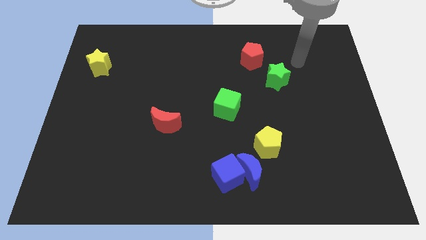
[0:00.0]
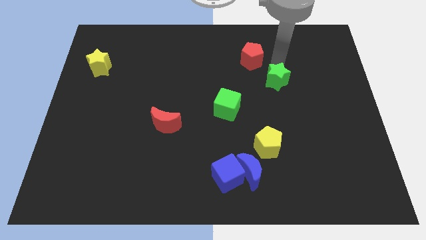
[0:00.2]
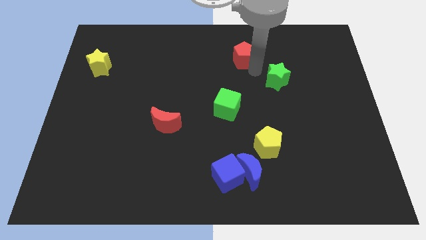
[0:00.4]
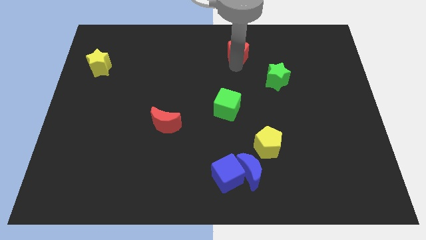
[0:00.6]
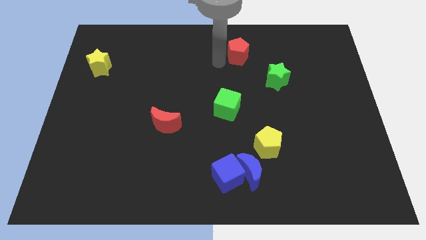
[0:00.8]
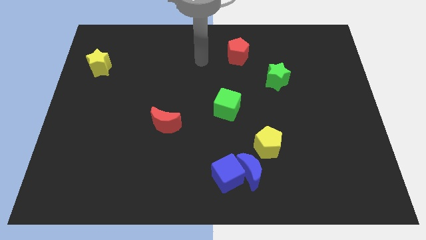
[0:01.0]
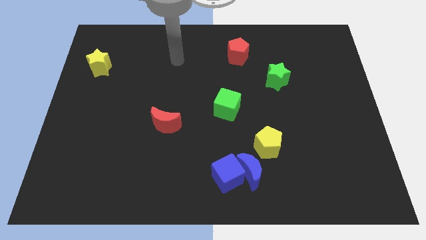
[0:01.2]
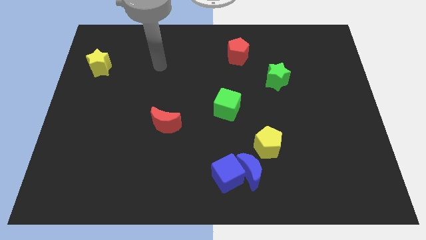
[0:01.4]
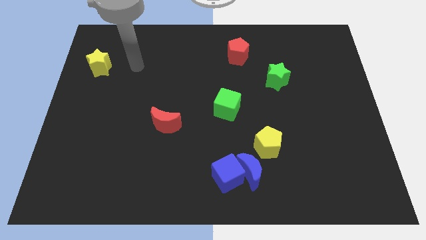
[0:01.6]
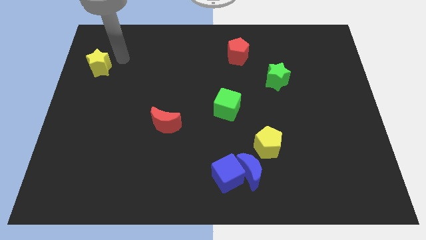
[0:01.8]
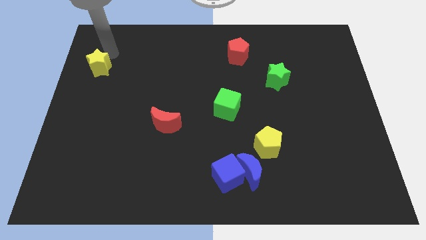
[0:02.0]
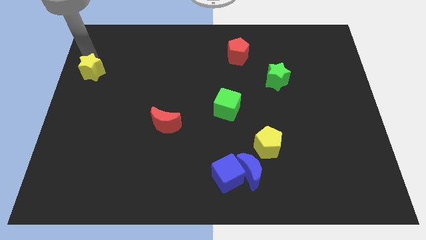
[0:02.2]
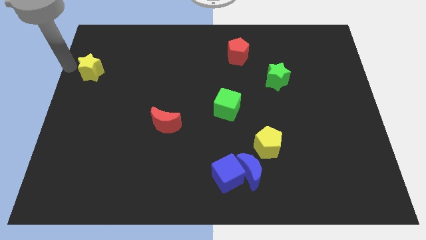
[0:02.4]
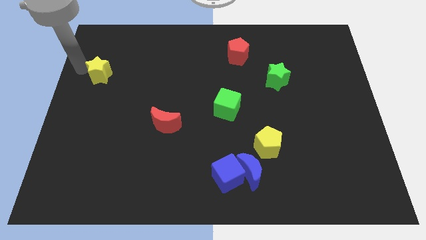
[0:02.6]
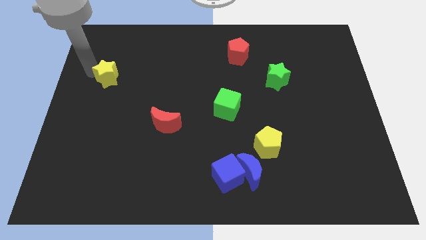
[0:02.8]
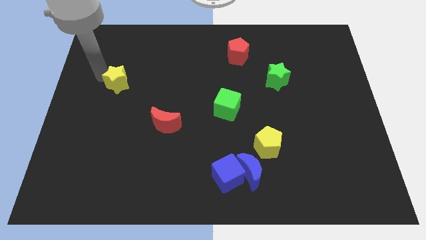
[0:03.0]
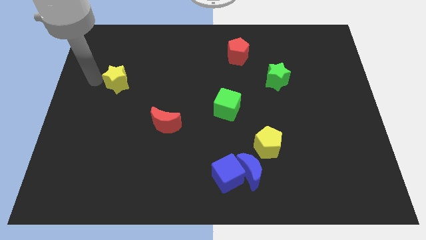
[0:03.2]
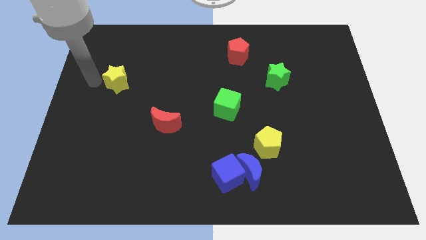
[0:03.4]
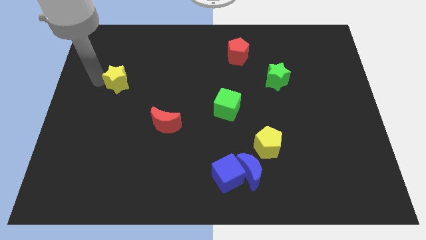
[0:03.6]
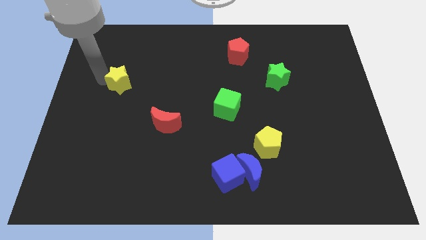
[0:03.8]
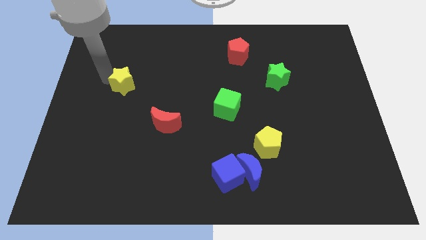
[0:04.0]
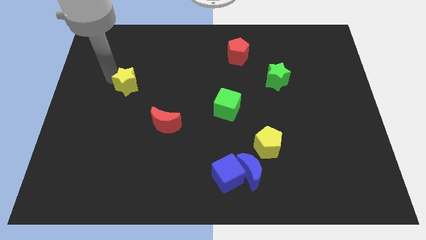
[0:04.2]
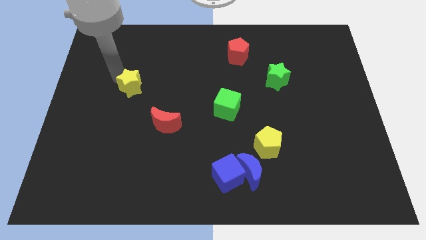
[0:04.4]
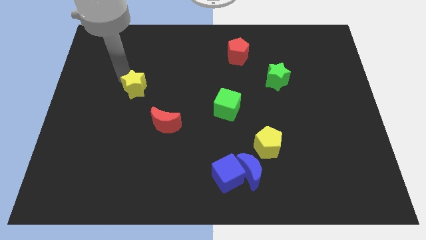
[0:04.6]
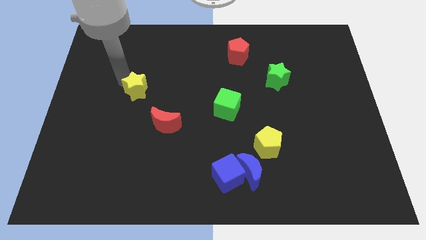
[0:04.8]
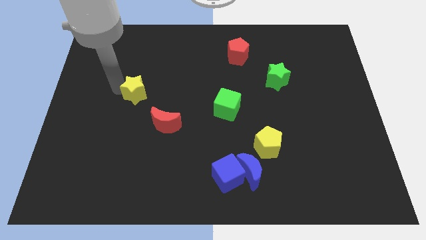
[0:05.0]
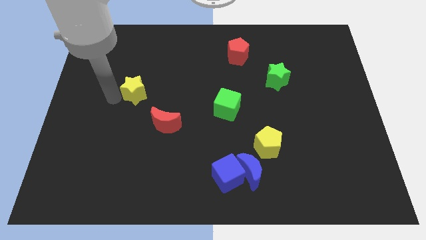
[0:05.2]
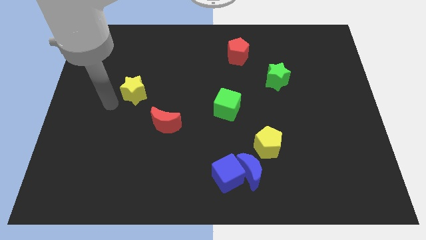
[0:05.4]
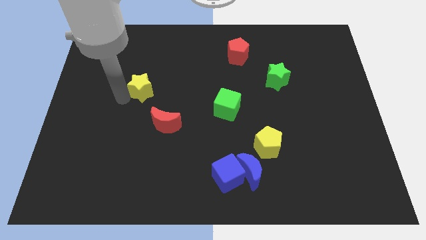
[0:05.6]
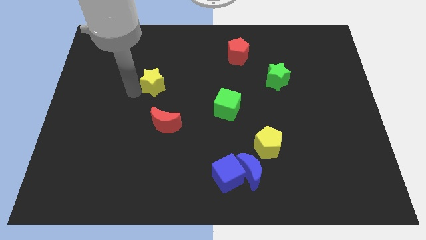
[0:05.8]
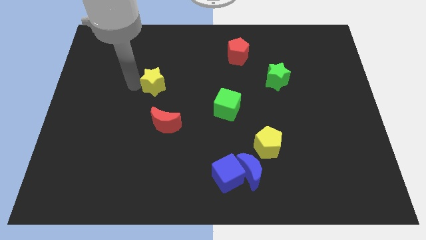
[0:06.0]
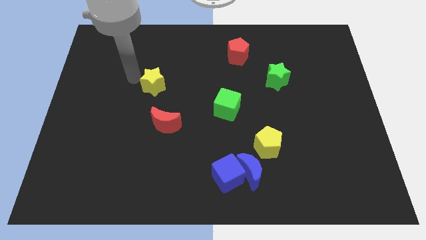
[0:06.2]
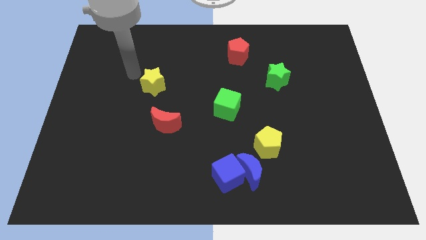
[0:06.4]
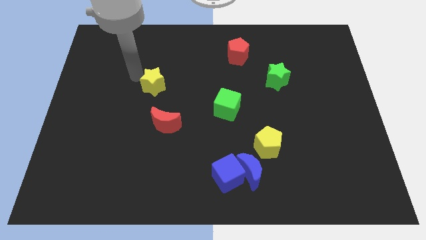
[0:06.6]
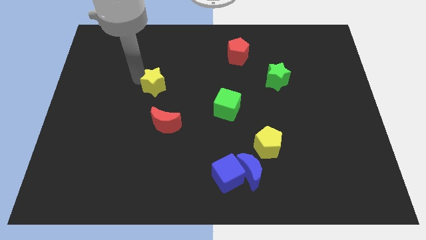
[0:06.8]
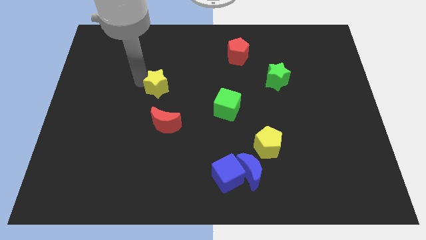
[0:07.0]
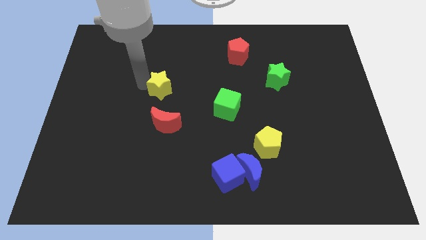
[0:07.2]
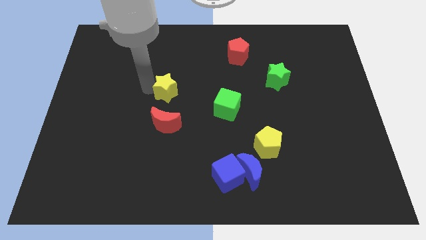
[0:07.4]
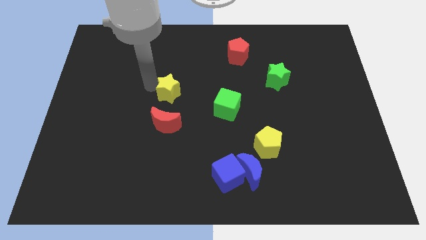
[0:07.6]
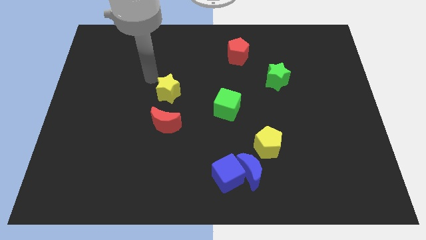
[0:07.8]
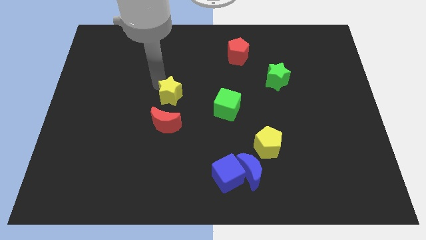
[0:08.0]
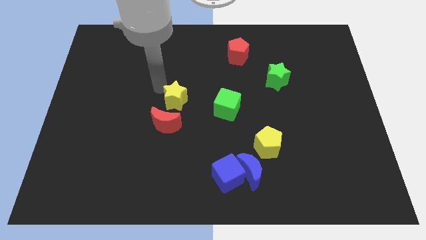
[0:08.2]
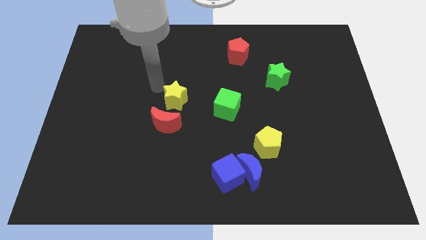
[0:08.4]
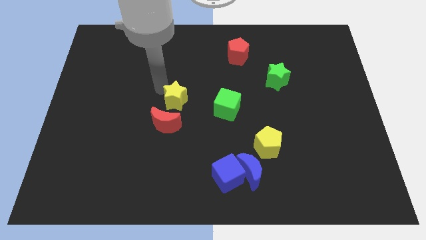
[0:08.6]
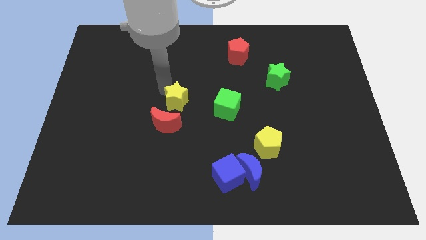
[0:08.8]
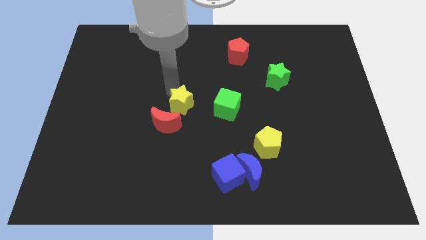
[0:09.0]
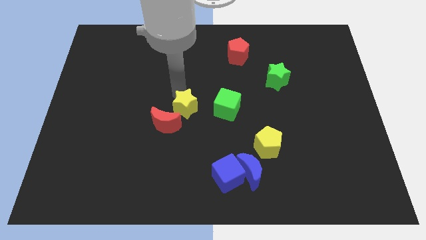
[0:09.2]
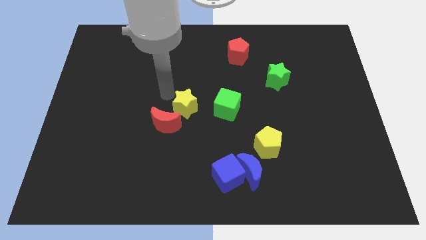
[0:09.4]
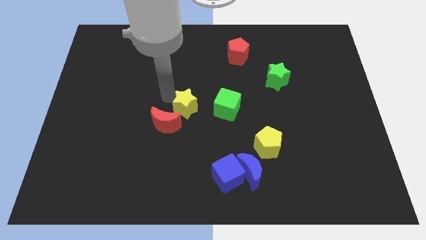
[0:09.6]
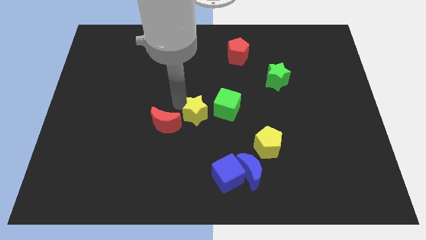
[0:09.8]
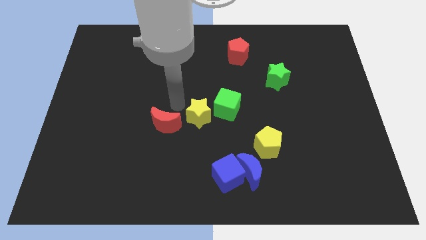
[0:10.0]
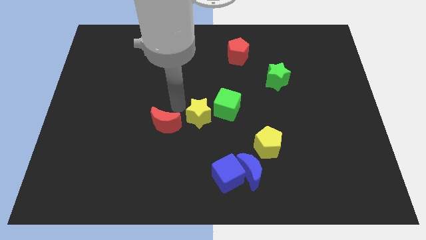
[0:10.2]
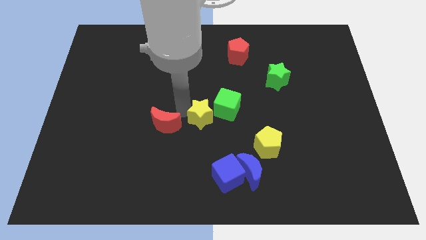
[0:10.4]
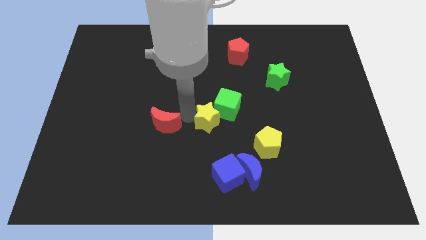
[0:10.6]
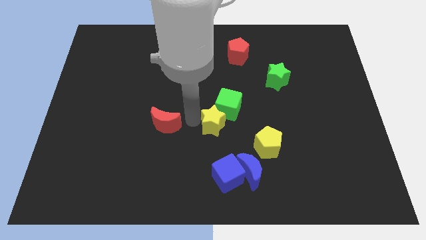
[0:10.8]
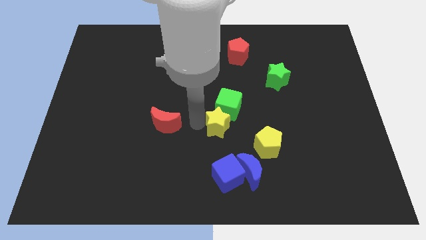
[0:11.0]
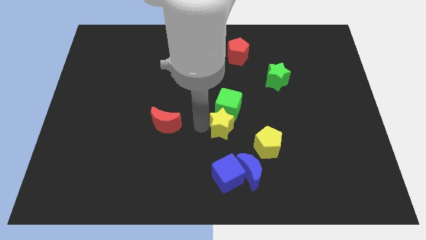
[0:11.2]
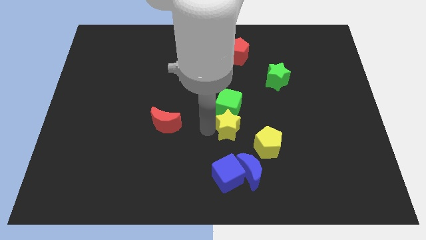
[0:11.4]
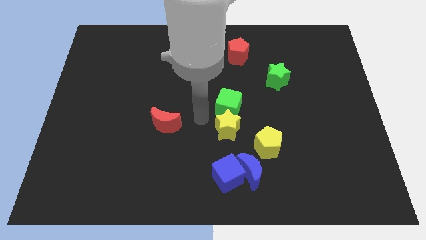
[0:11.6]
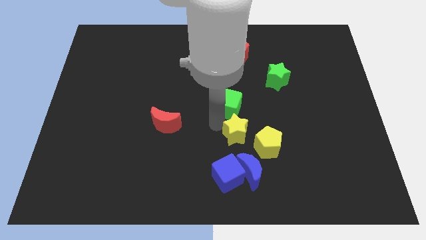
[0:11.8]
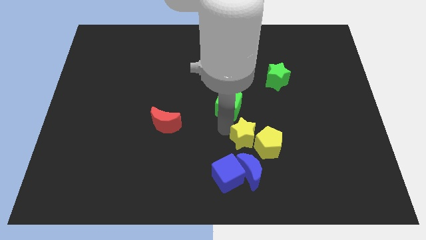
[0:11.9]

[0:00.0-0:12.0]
move the yellow star to the yellow pentagon

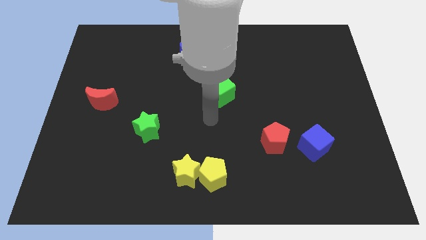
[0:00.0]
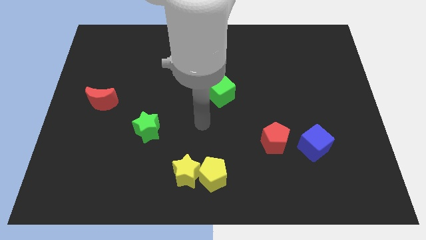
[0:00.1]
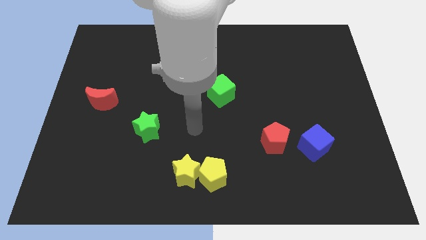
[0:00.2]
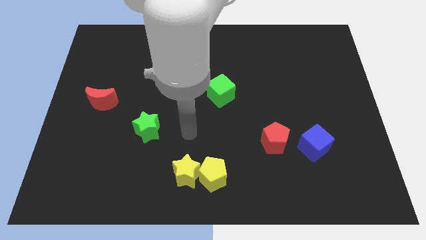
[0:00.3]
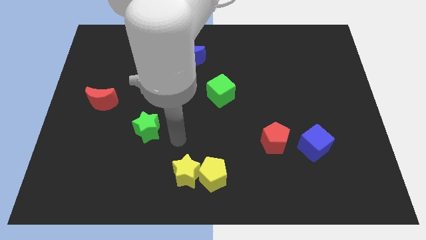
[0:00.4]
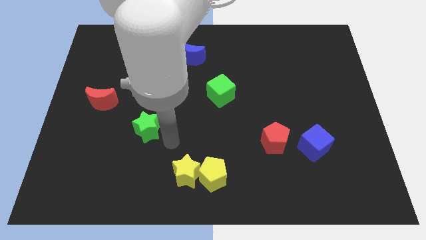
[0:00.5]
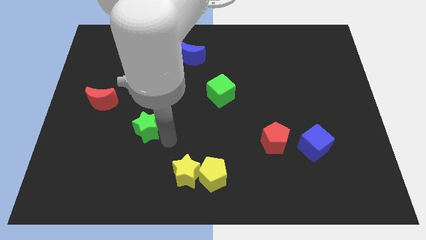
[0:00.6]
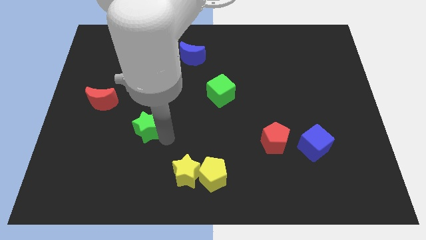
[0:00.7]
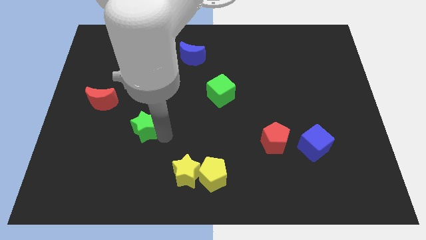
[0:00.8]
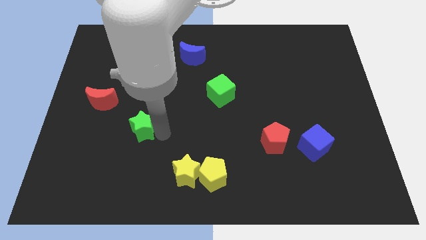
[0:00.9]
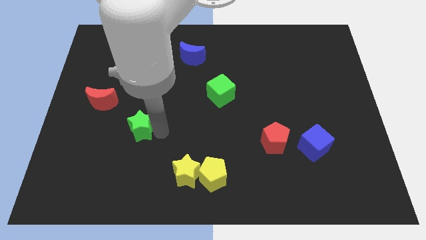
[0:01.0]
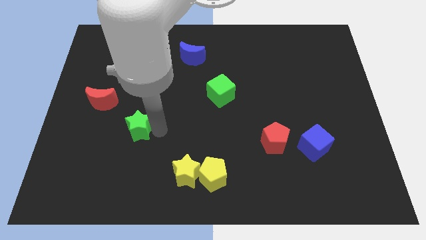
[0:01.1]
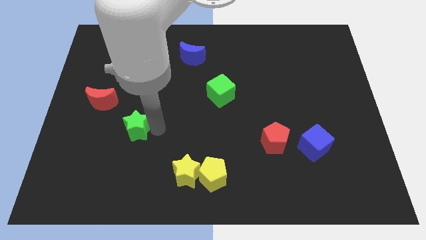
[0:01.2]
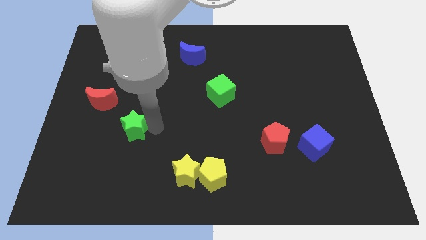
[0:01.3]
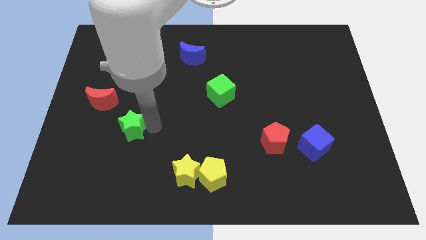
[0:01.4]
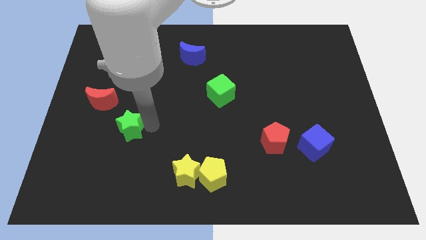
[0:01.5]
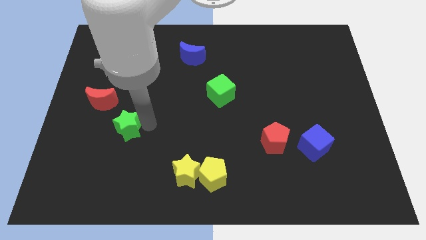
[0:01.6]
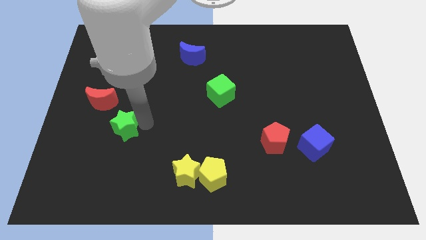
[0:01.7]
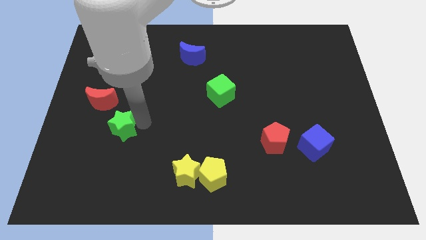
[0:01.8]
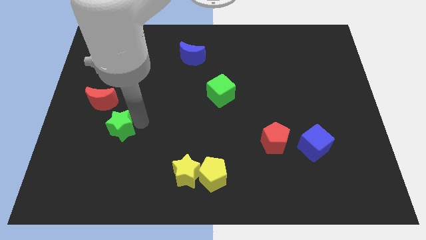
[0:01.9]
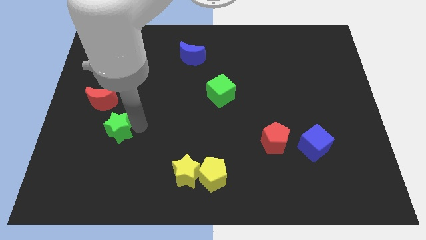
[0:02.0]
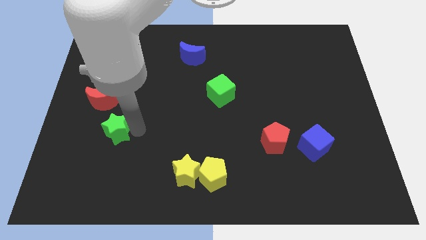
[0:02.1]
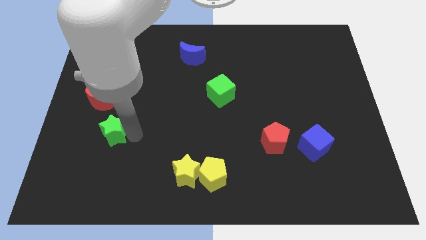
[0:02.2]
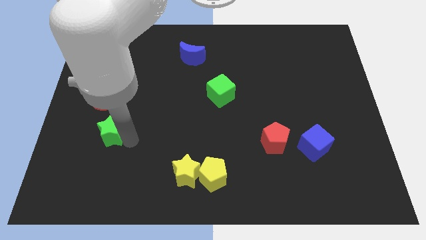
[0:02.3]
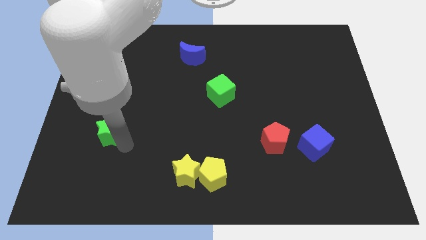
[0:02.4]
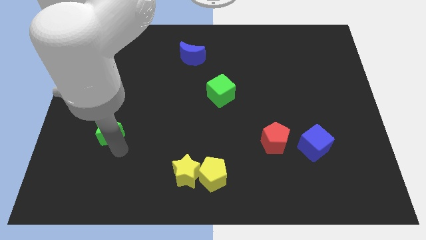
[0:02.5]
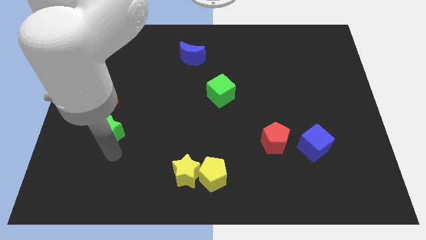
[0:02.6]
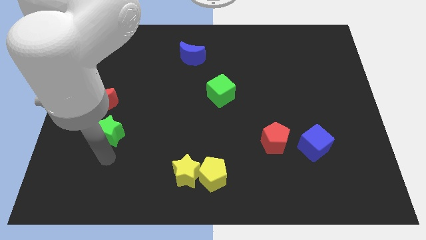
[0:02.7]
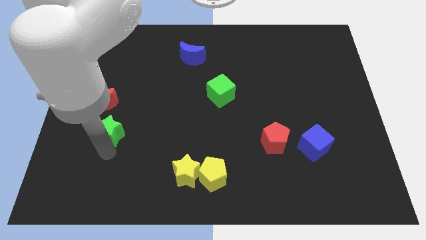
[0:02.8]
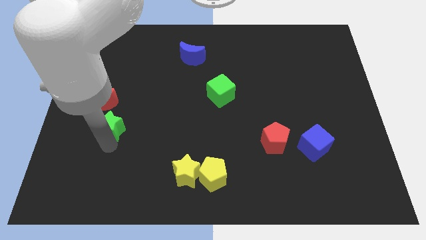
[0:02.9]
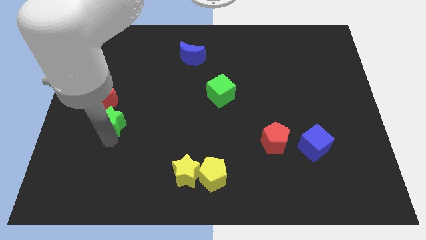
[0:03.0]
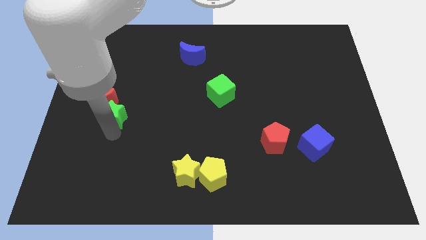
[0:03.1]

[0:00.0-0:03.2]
move the green star towards the red moon
